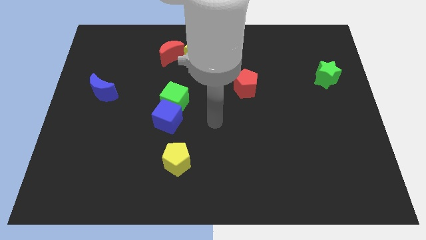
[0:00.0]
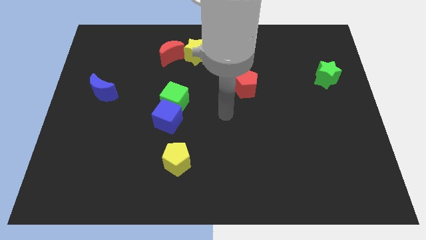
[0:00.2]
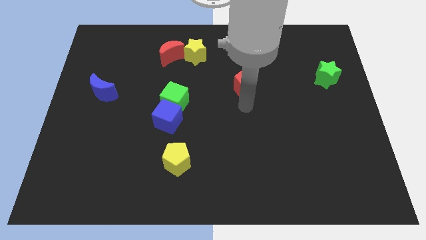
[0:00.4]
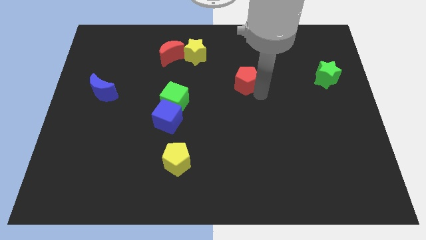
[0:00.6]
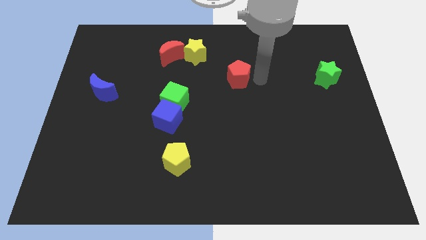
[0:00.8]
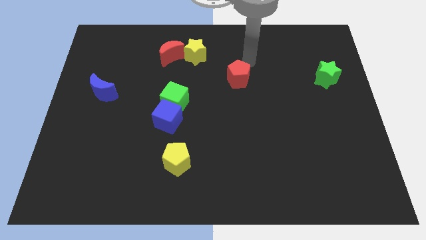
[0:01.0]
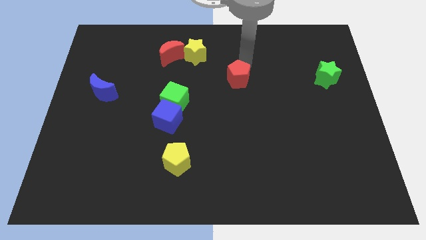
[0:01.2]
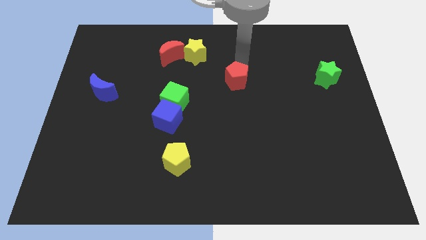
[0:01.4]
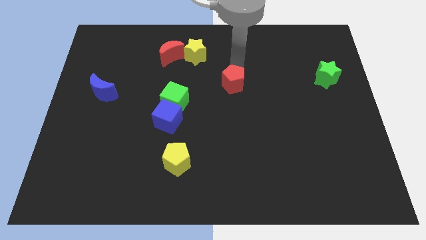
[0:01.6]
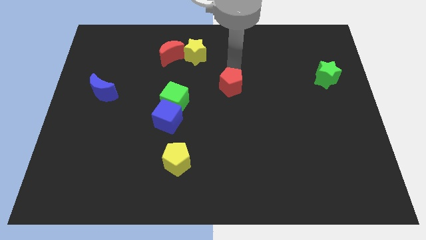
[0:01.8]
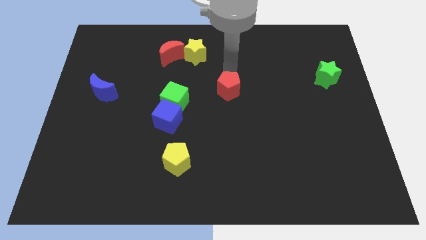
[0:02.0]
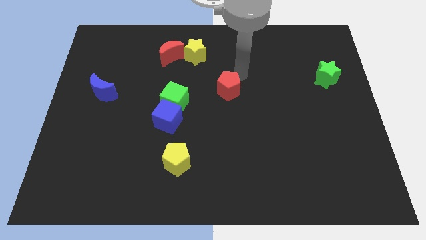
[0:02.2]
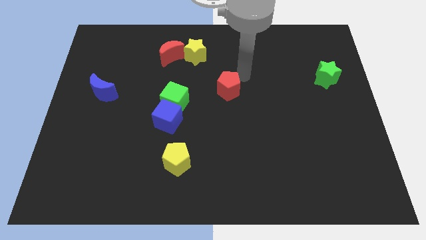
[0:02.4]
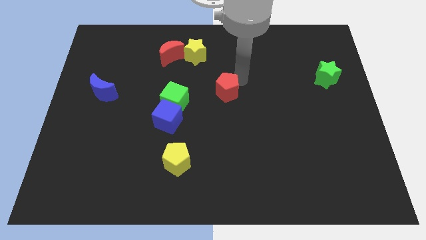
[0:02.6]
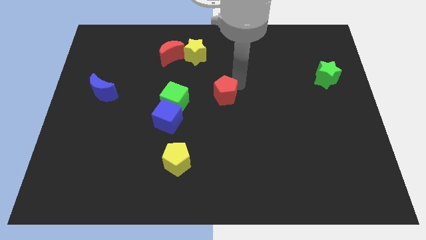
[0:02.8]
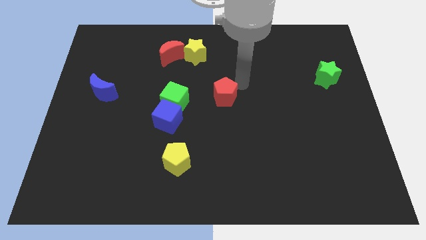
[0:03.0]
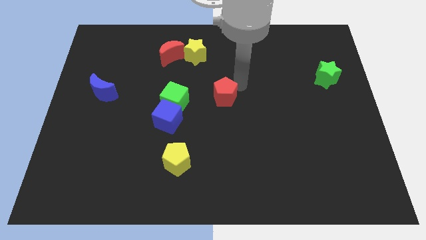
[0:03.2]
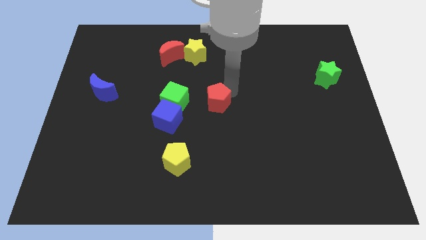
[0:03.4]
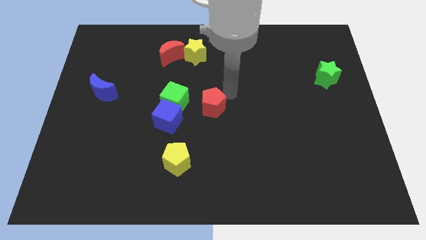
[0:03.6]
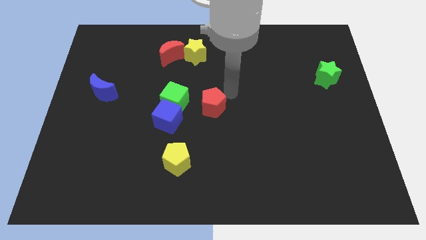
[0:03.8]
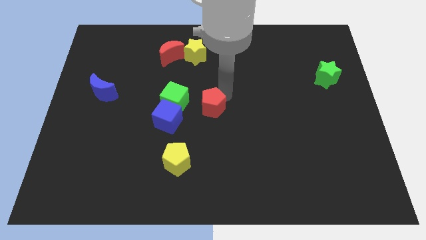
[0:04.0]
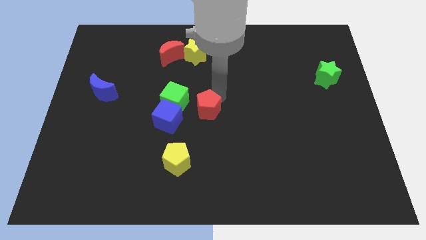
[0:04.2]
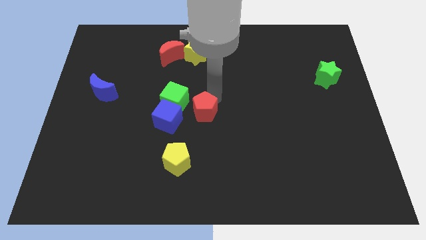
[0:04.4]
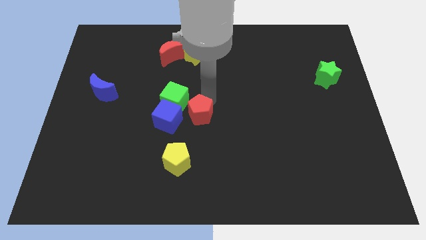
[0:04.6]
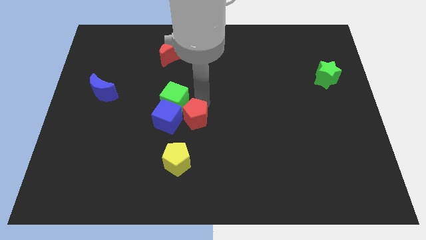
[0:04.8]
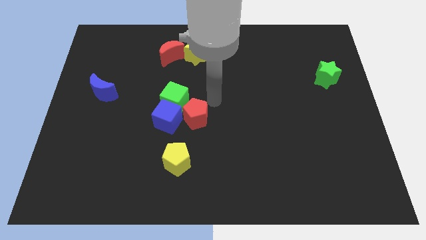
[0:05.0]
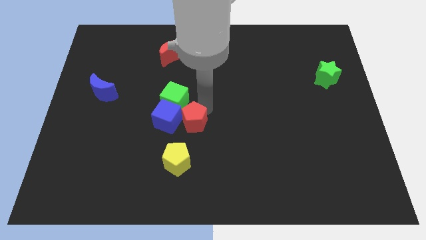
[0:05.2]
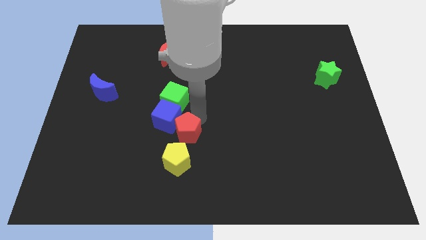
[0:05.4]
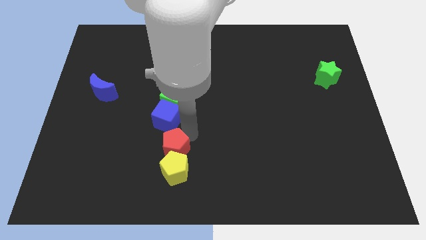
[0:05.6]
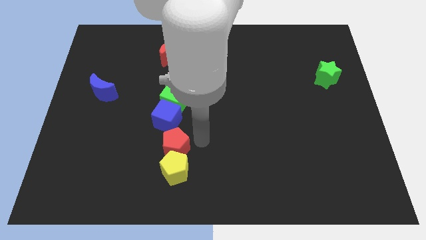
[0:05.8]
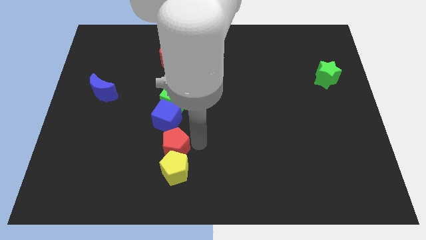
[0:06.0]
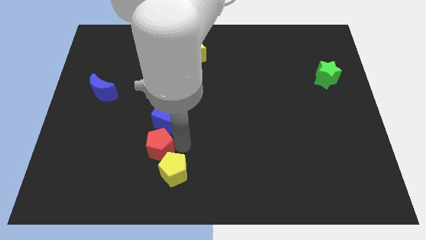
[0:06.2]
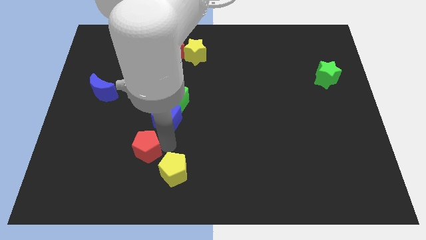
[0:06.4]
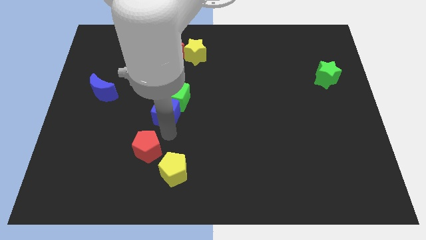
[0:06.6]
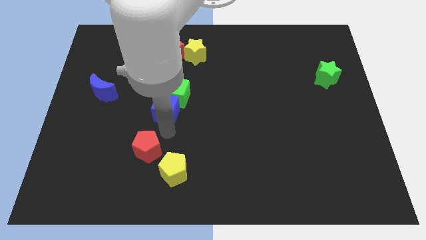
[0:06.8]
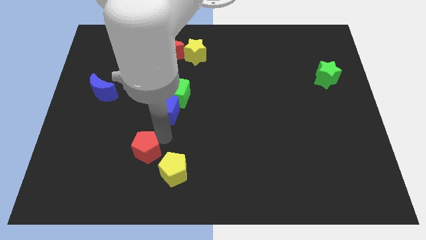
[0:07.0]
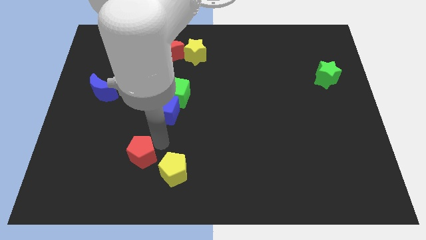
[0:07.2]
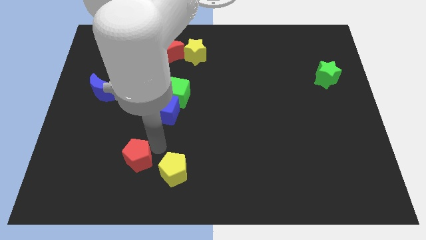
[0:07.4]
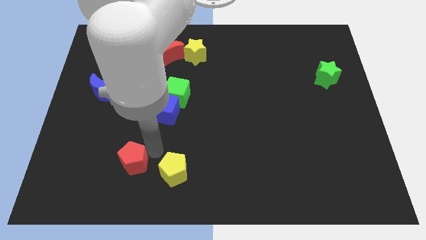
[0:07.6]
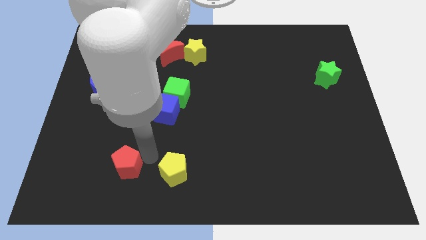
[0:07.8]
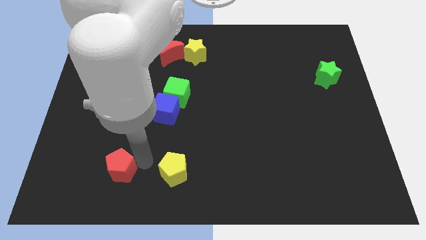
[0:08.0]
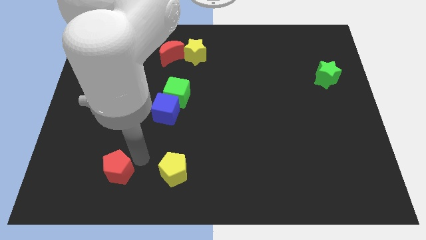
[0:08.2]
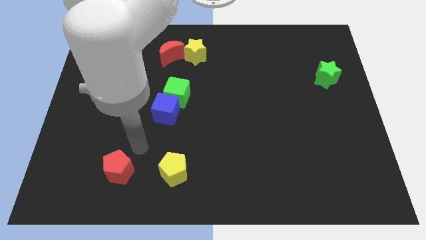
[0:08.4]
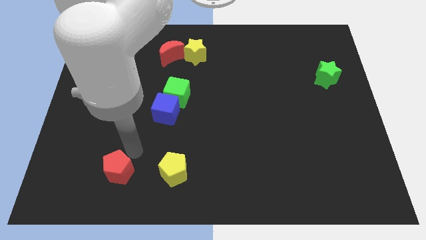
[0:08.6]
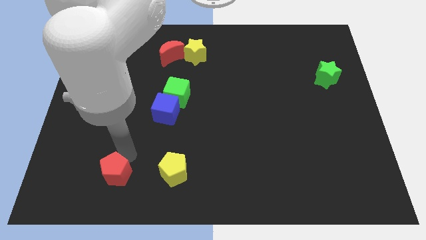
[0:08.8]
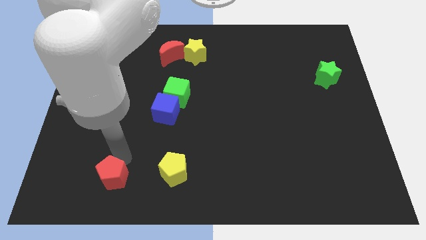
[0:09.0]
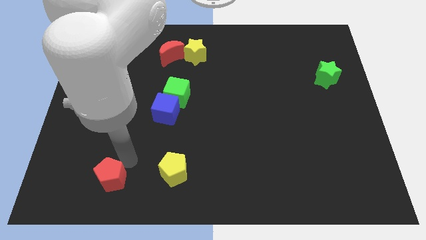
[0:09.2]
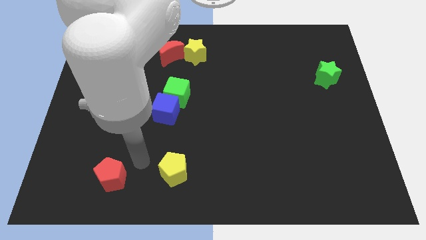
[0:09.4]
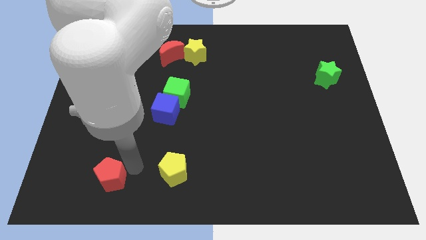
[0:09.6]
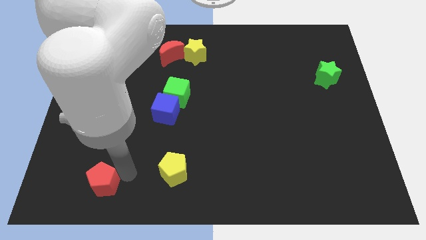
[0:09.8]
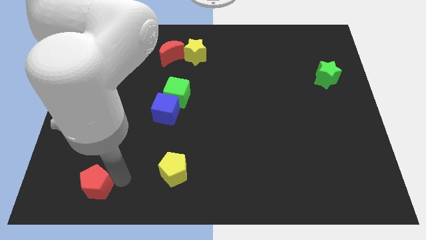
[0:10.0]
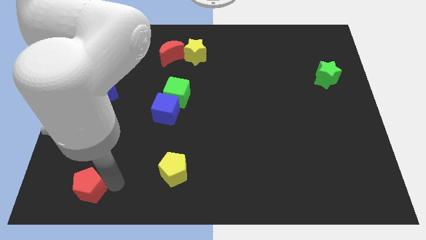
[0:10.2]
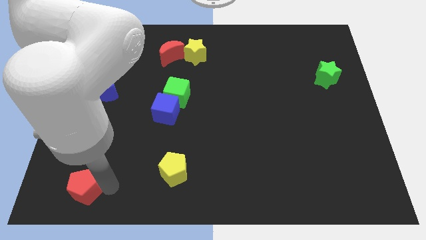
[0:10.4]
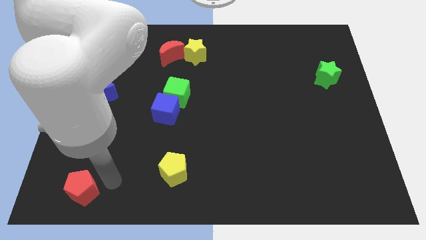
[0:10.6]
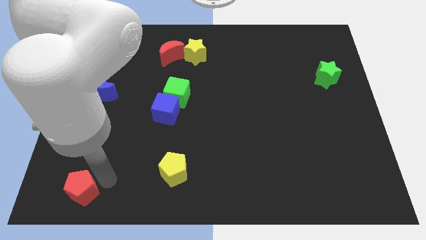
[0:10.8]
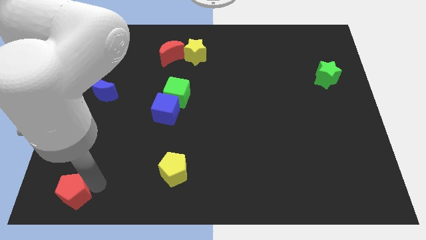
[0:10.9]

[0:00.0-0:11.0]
put the red pentagon to the bottom left

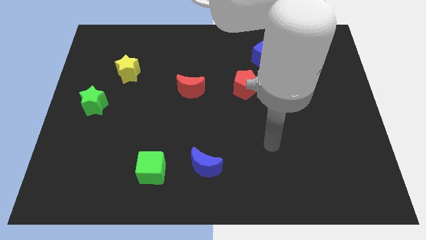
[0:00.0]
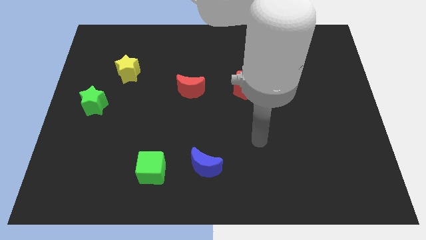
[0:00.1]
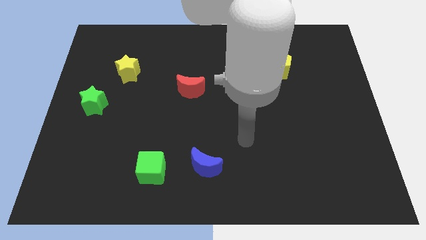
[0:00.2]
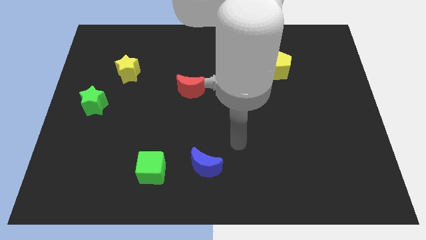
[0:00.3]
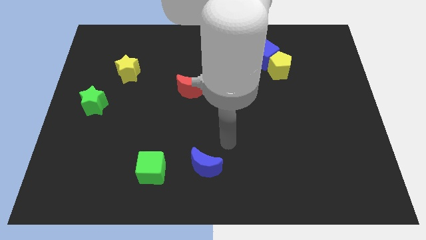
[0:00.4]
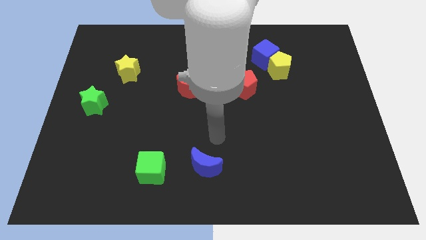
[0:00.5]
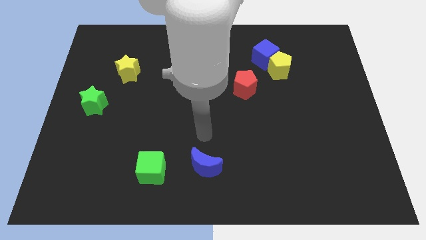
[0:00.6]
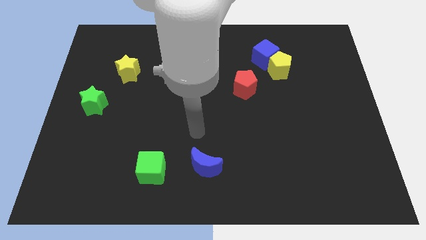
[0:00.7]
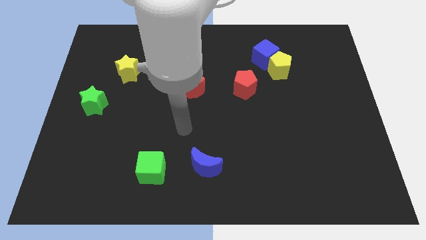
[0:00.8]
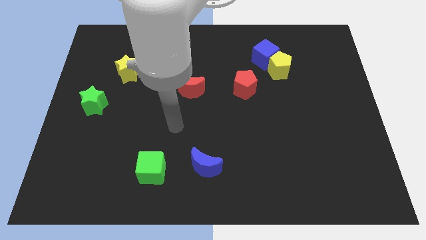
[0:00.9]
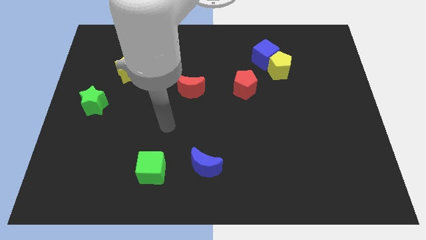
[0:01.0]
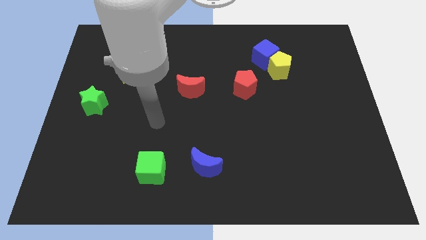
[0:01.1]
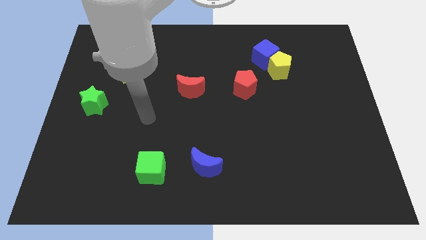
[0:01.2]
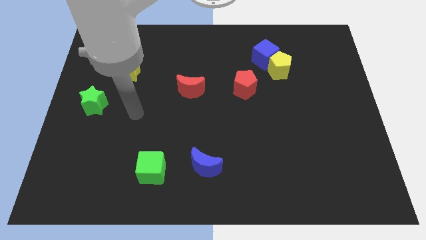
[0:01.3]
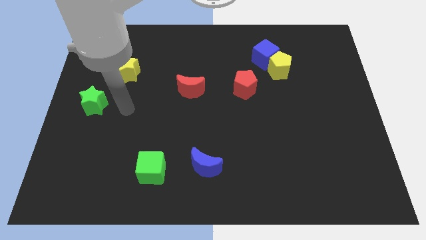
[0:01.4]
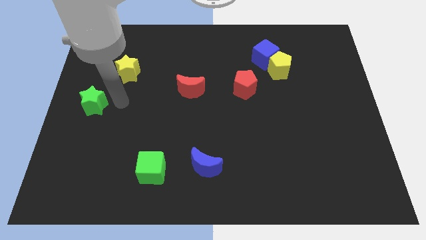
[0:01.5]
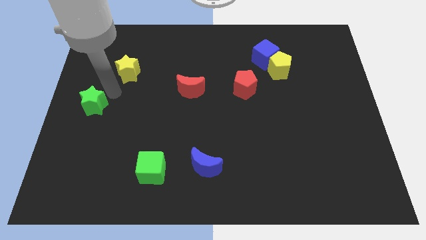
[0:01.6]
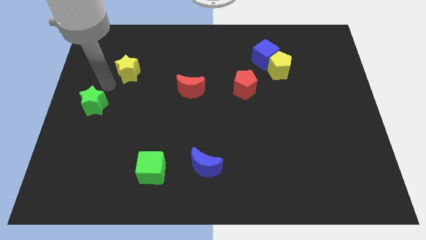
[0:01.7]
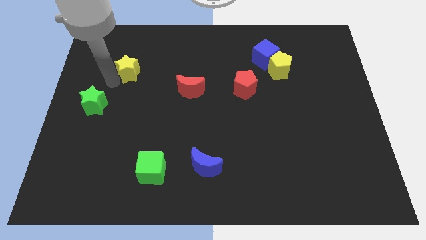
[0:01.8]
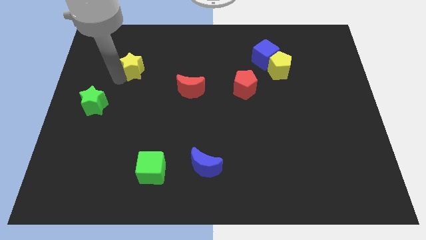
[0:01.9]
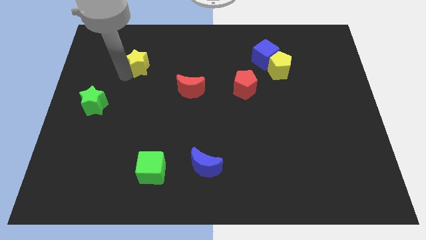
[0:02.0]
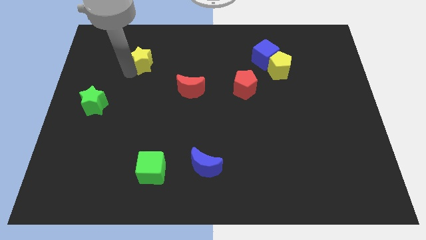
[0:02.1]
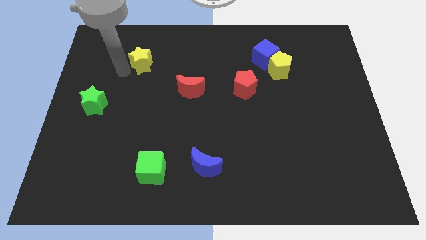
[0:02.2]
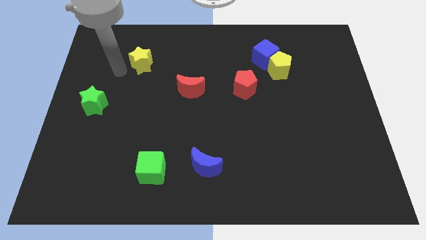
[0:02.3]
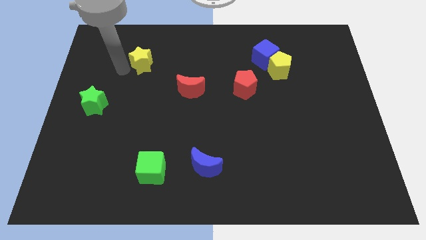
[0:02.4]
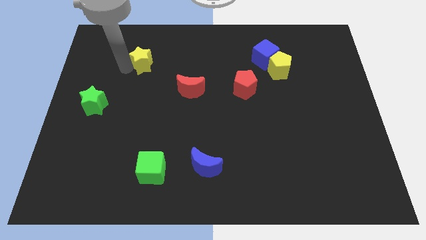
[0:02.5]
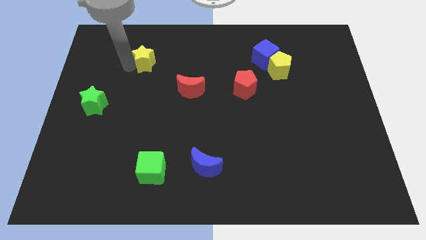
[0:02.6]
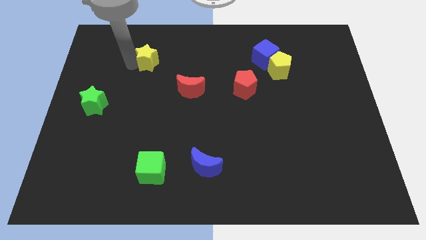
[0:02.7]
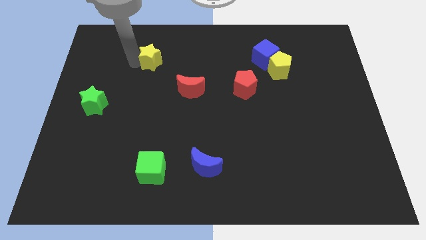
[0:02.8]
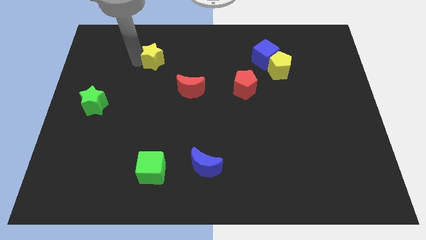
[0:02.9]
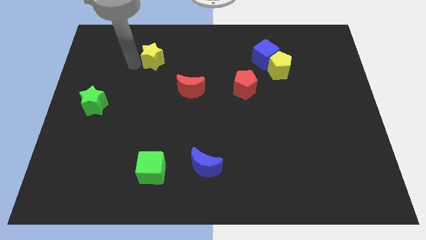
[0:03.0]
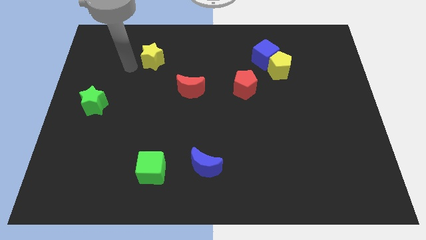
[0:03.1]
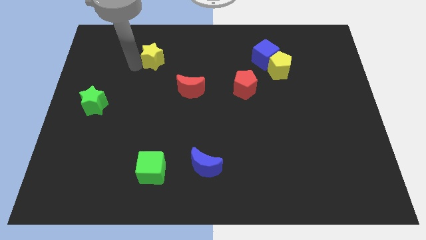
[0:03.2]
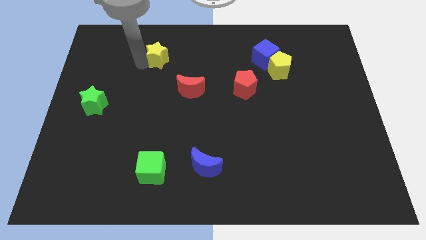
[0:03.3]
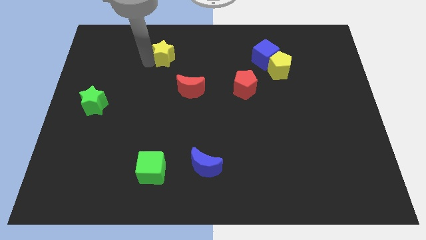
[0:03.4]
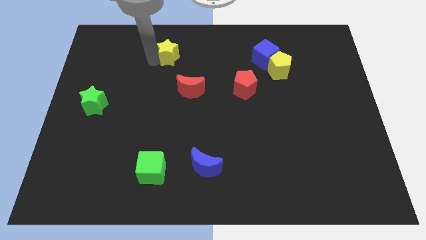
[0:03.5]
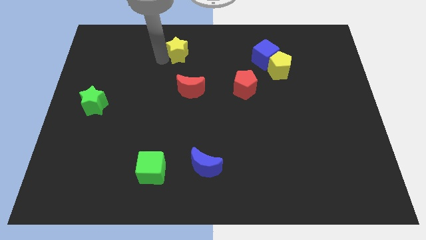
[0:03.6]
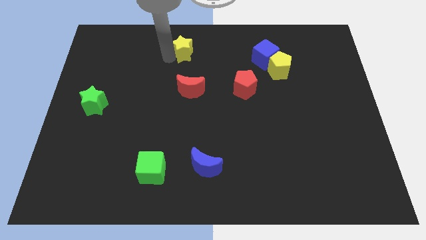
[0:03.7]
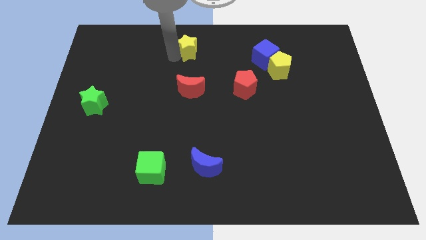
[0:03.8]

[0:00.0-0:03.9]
slide the yellow star to the top
